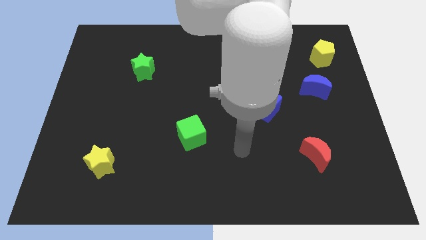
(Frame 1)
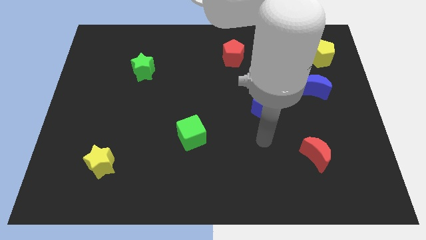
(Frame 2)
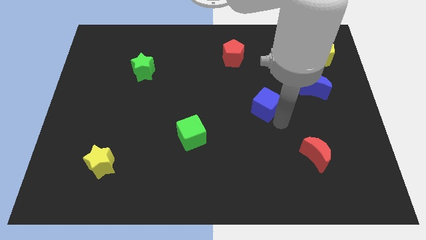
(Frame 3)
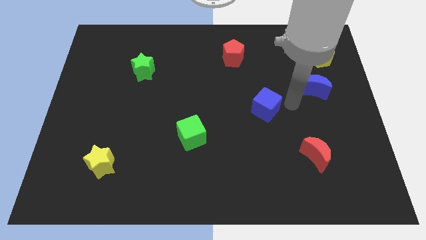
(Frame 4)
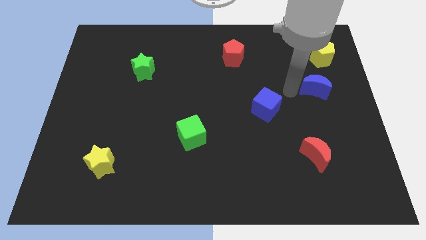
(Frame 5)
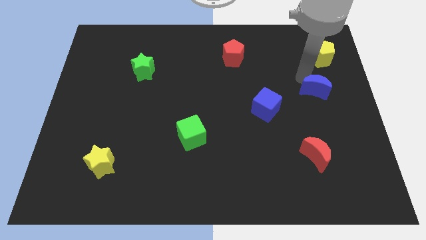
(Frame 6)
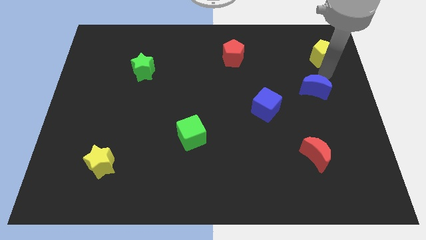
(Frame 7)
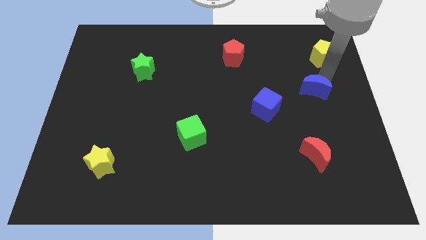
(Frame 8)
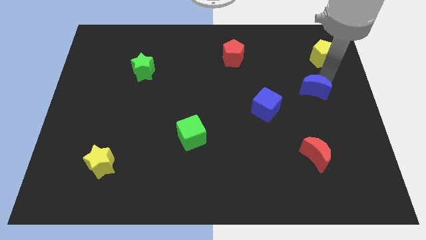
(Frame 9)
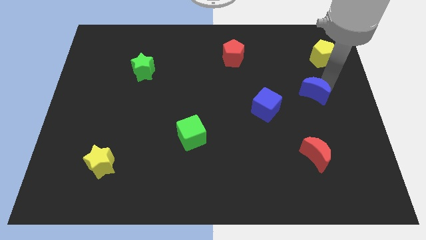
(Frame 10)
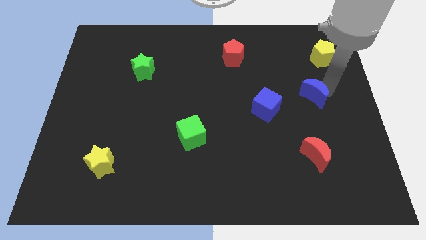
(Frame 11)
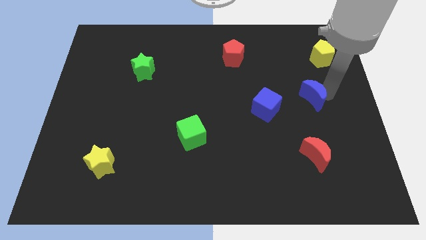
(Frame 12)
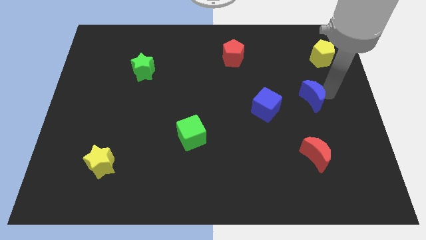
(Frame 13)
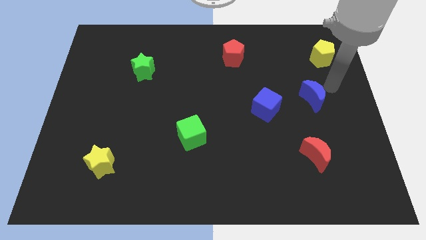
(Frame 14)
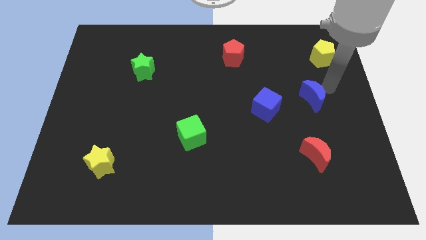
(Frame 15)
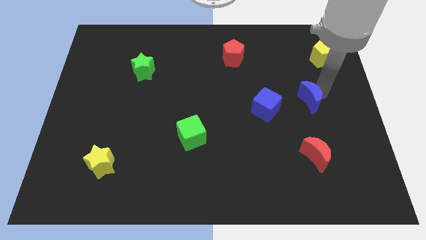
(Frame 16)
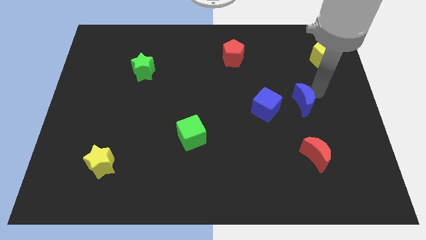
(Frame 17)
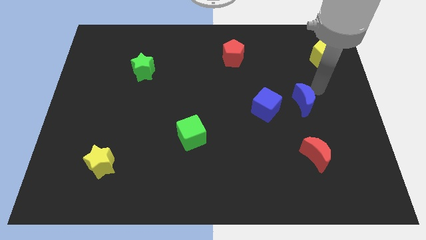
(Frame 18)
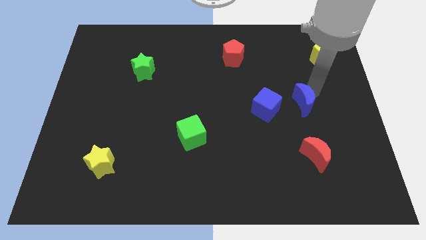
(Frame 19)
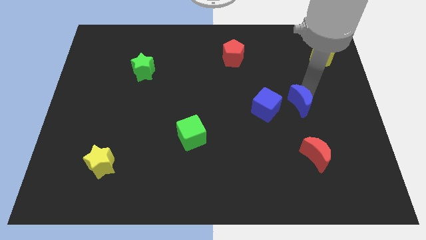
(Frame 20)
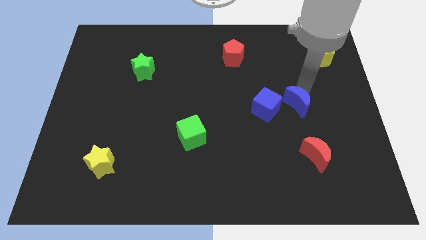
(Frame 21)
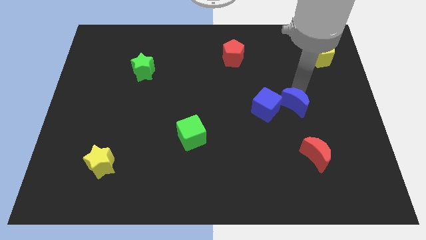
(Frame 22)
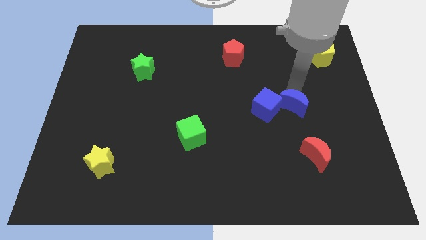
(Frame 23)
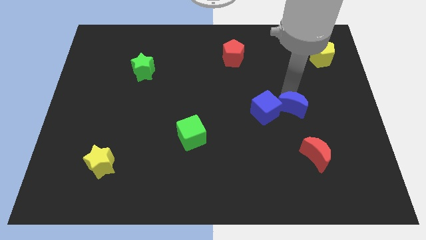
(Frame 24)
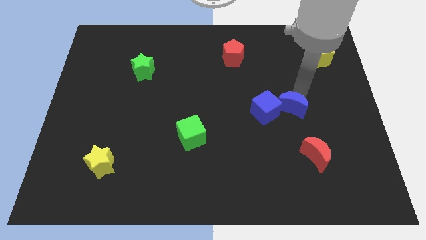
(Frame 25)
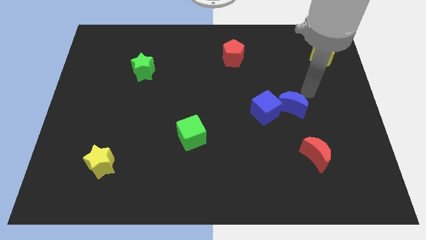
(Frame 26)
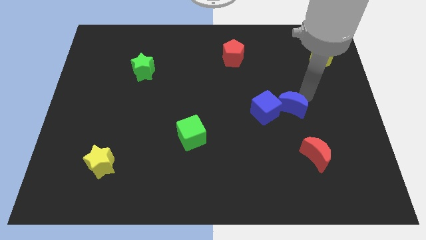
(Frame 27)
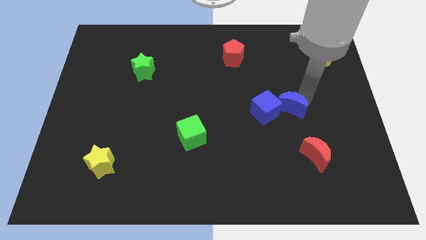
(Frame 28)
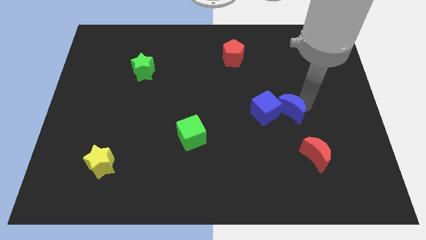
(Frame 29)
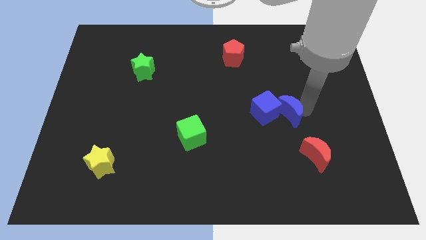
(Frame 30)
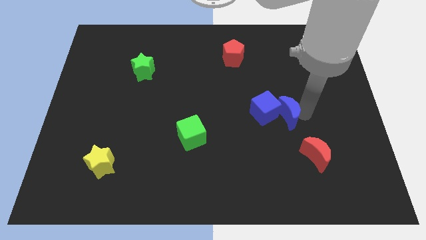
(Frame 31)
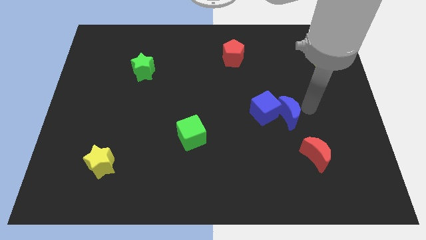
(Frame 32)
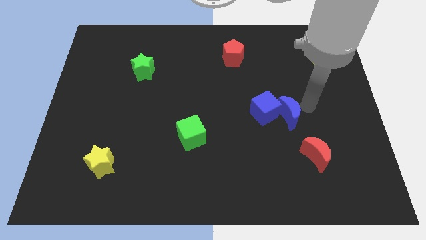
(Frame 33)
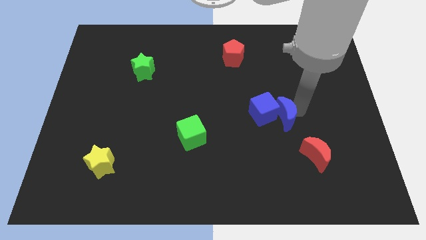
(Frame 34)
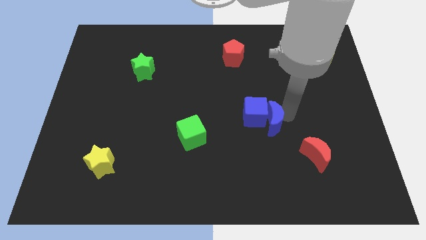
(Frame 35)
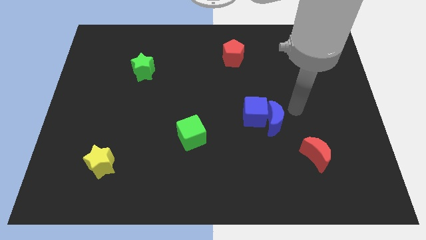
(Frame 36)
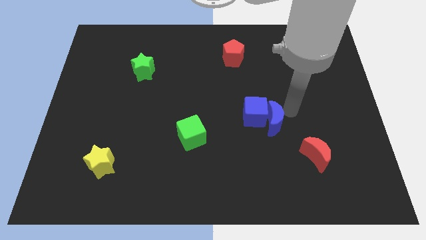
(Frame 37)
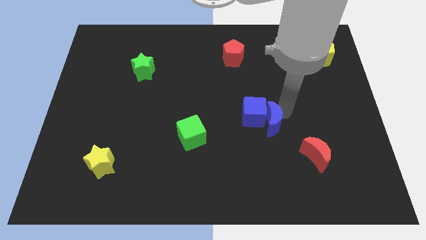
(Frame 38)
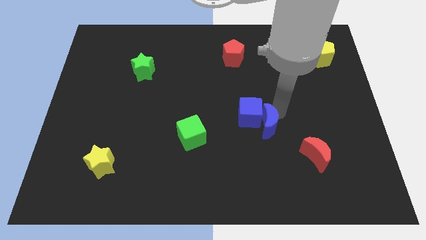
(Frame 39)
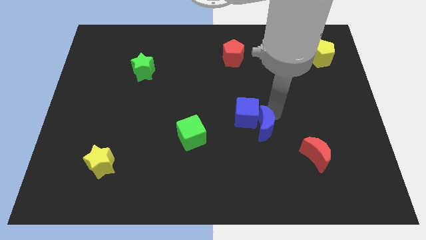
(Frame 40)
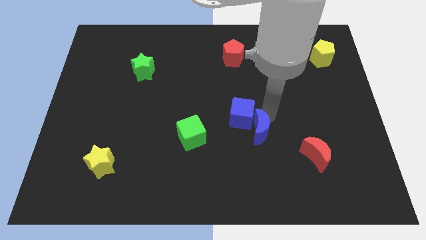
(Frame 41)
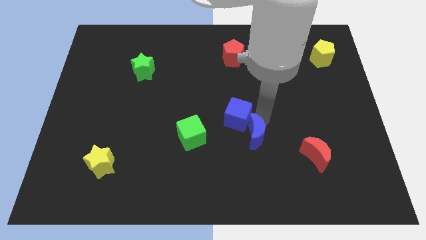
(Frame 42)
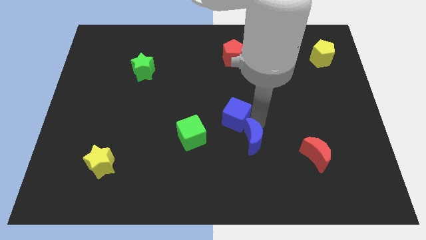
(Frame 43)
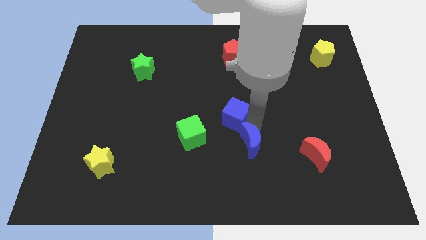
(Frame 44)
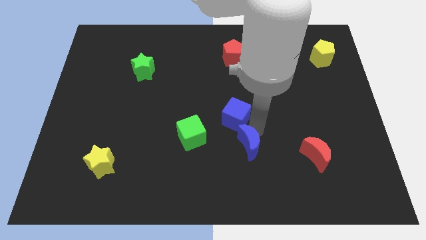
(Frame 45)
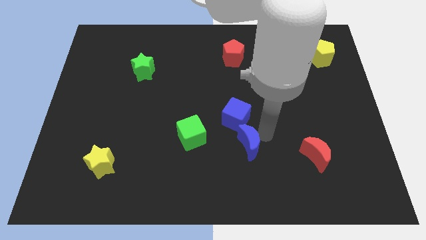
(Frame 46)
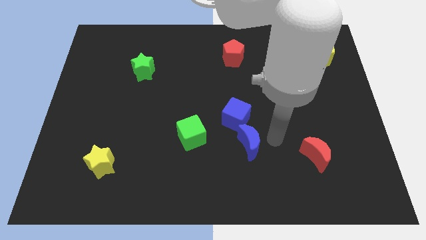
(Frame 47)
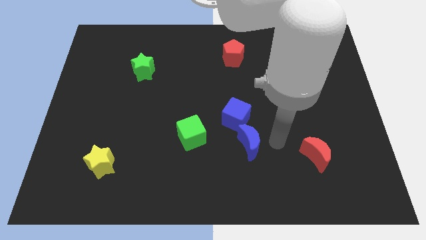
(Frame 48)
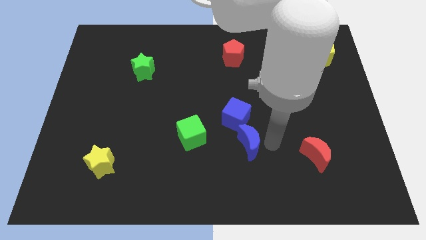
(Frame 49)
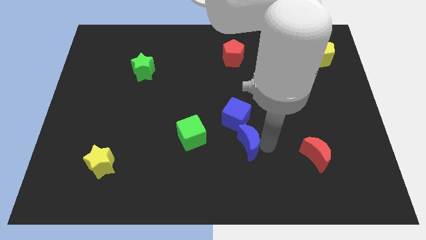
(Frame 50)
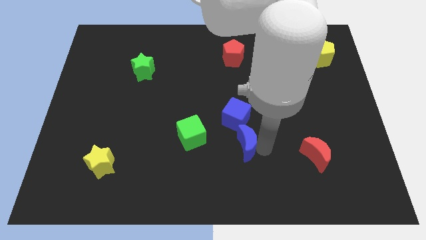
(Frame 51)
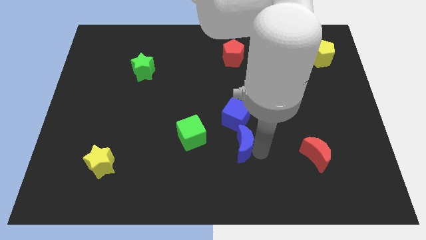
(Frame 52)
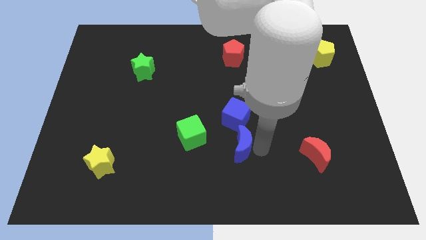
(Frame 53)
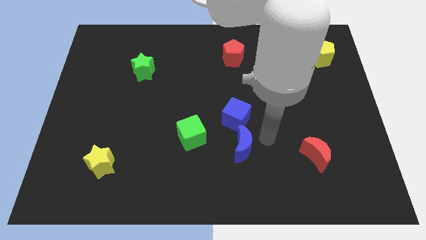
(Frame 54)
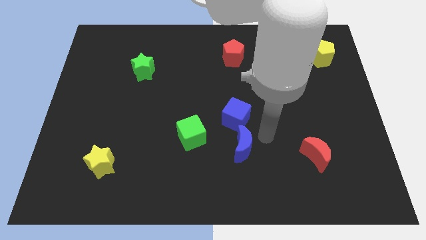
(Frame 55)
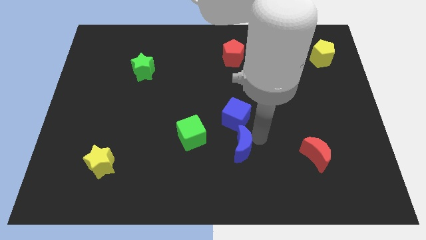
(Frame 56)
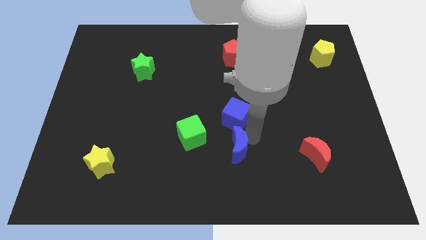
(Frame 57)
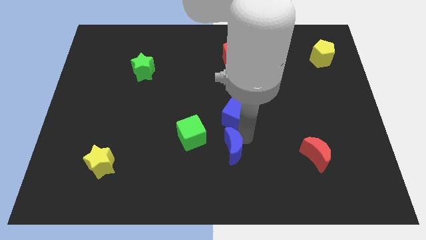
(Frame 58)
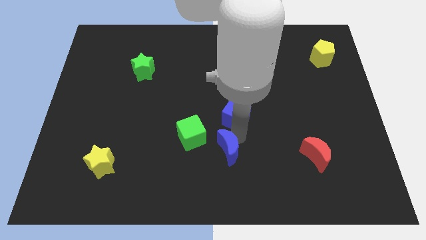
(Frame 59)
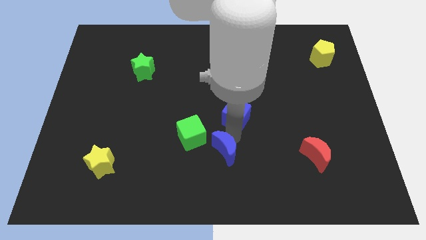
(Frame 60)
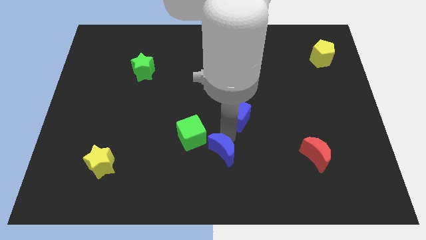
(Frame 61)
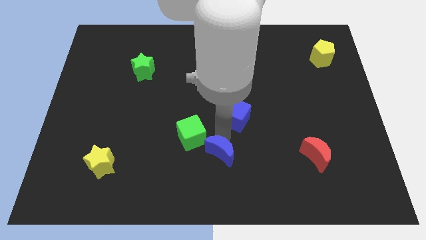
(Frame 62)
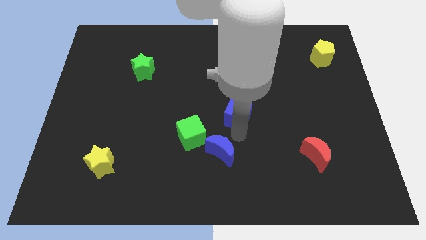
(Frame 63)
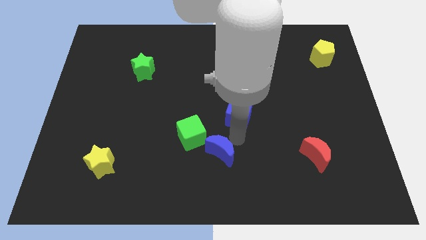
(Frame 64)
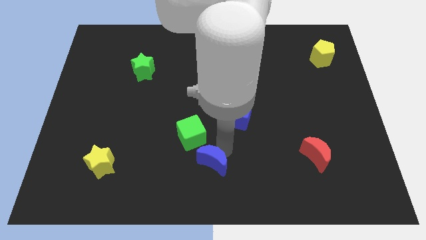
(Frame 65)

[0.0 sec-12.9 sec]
move the blue moon below the green cube

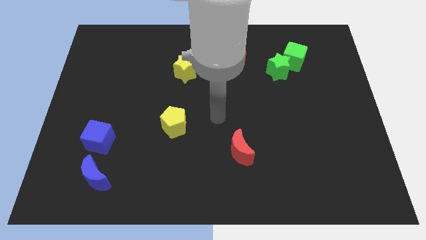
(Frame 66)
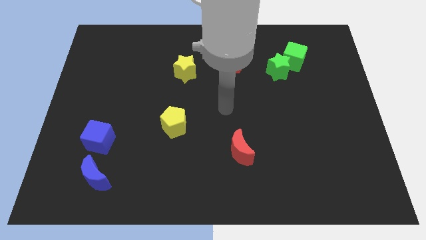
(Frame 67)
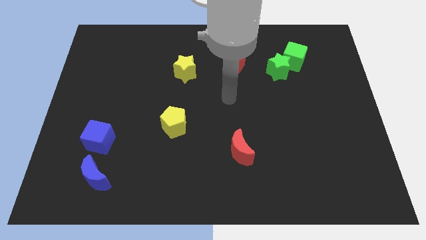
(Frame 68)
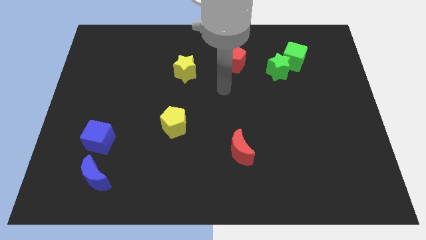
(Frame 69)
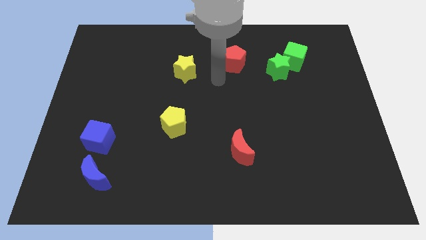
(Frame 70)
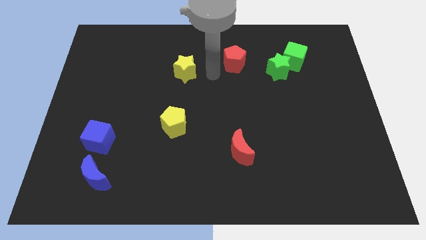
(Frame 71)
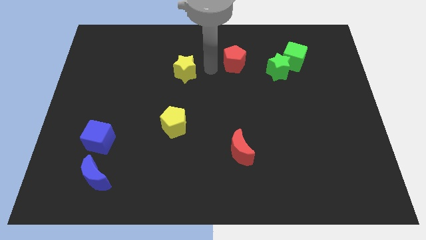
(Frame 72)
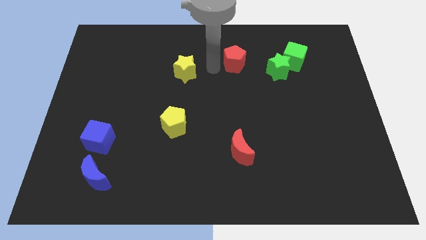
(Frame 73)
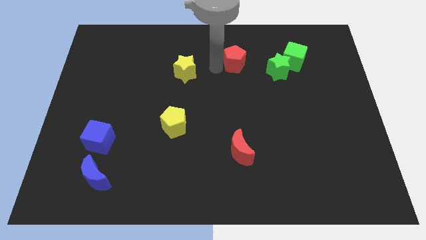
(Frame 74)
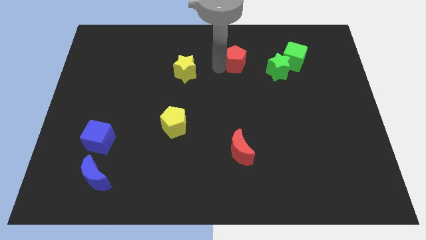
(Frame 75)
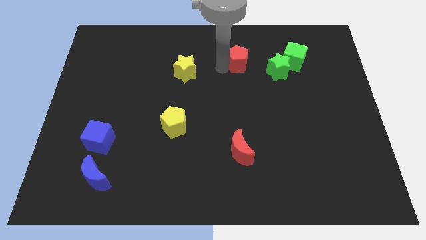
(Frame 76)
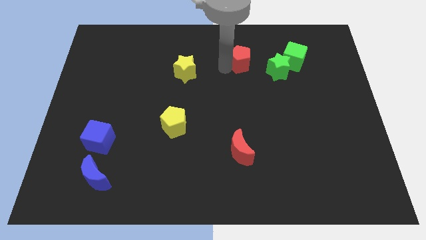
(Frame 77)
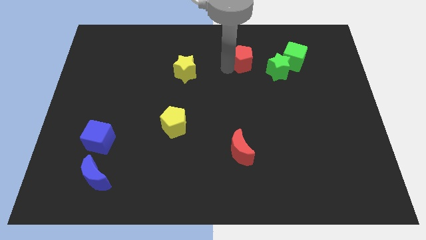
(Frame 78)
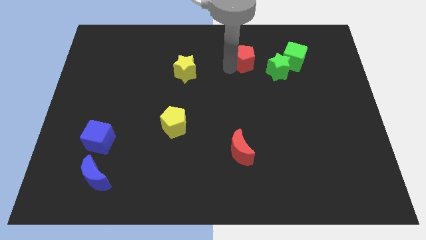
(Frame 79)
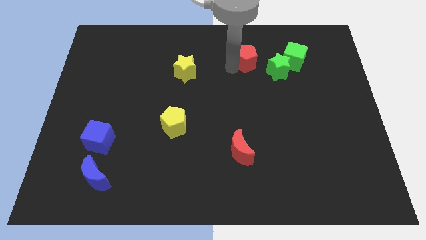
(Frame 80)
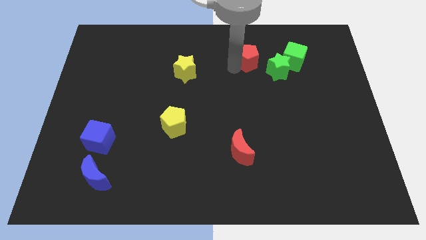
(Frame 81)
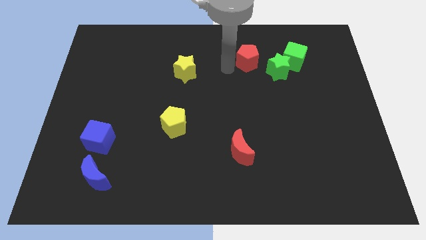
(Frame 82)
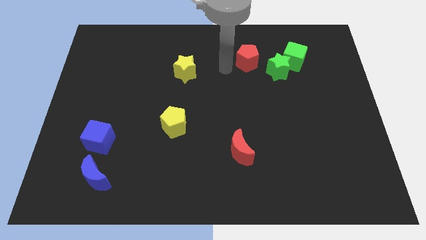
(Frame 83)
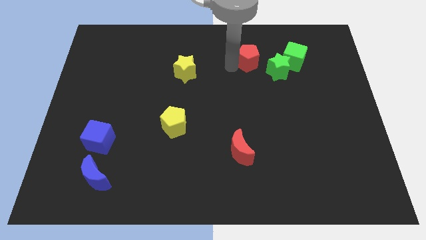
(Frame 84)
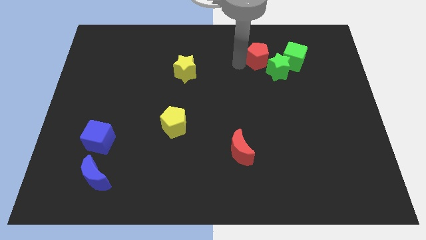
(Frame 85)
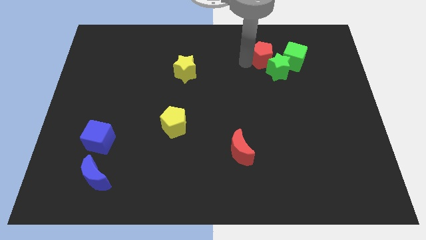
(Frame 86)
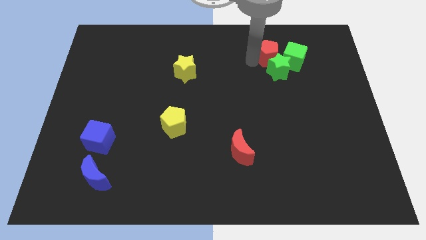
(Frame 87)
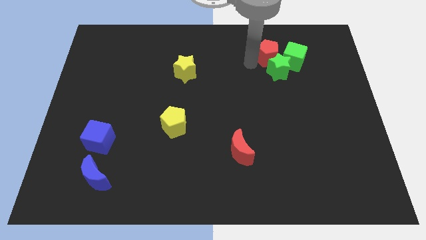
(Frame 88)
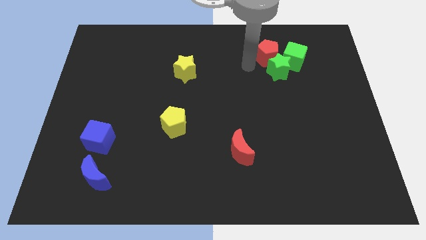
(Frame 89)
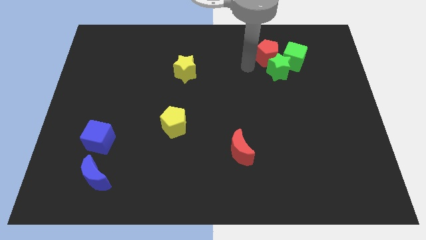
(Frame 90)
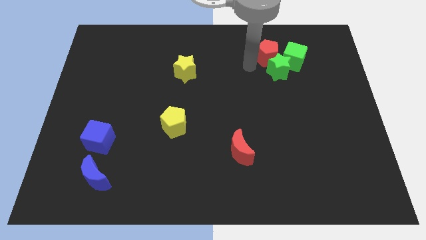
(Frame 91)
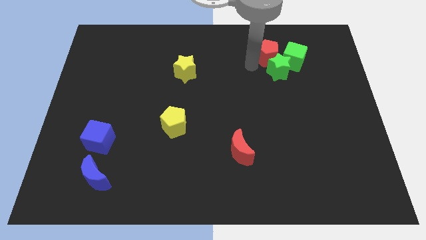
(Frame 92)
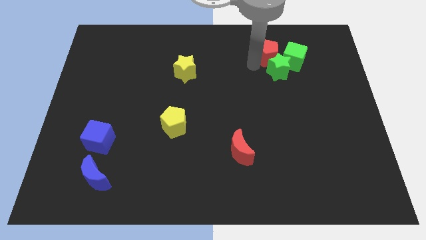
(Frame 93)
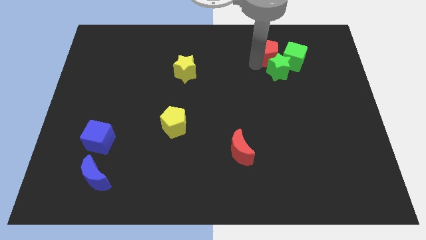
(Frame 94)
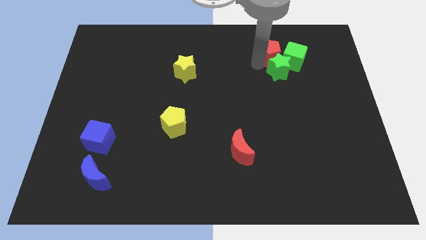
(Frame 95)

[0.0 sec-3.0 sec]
put the red pentagon diagonally up and to the right of the green star
